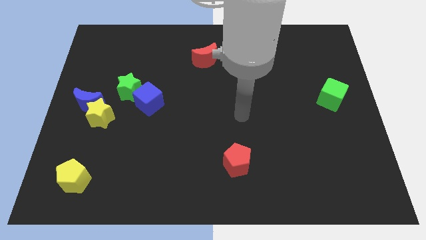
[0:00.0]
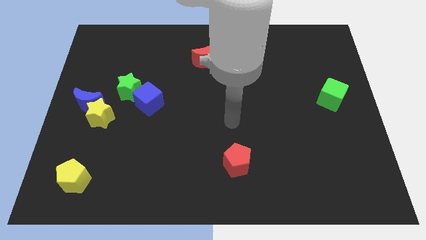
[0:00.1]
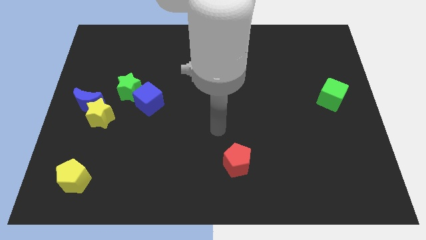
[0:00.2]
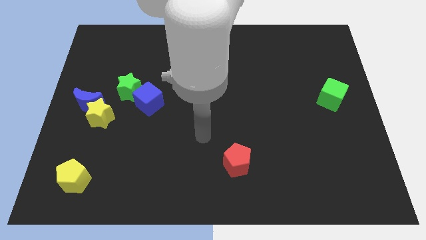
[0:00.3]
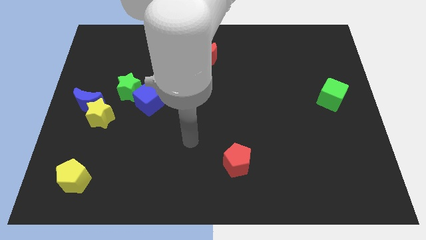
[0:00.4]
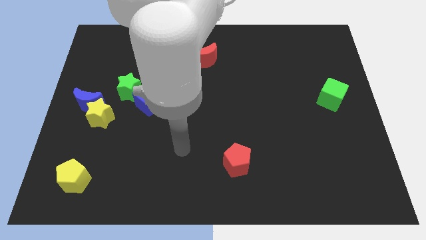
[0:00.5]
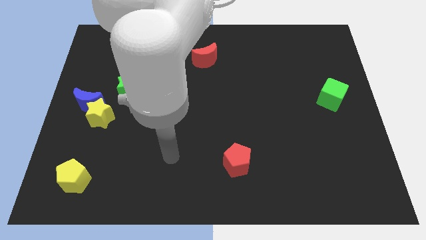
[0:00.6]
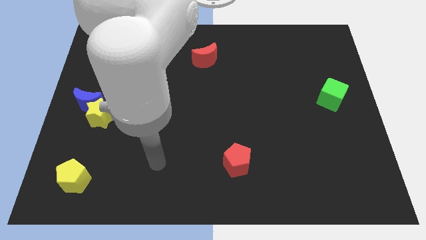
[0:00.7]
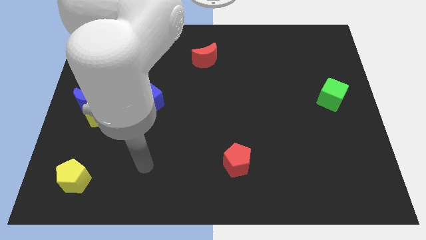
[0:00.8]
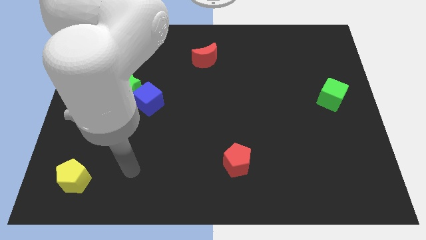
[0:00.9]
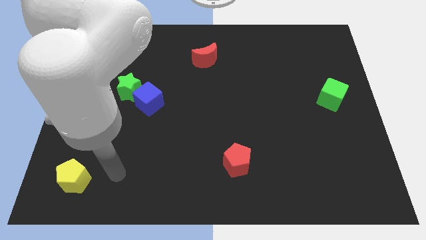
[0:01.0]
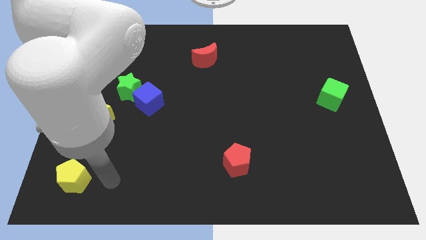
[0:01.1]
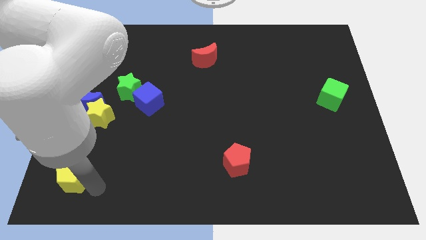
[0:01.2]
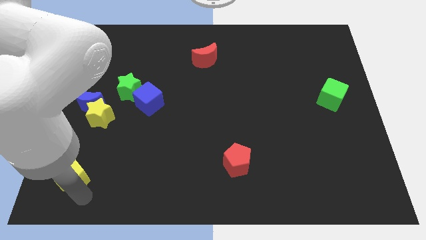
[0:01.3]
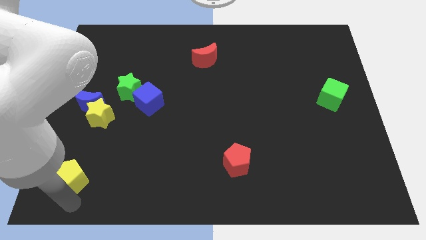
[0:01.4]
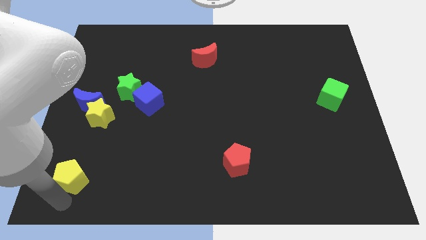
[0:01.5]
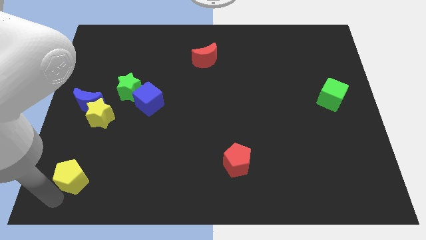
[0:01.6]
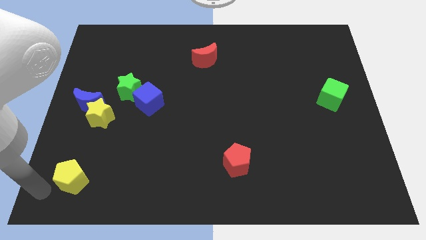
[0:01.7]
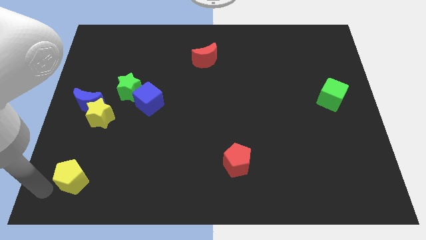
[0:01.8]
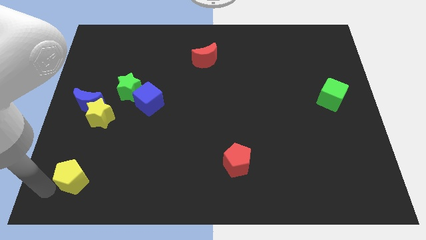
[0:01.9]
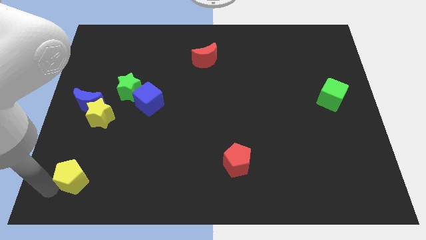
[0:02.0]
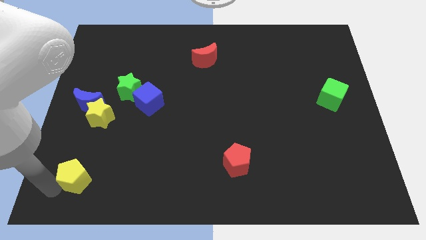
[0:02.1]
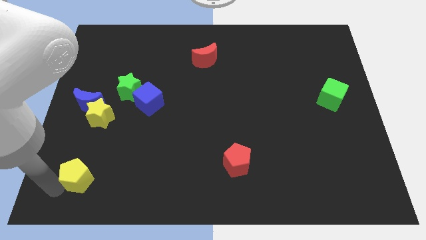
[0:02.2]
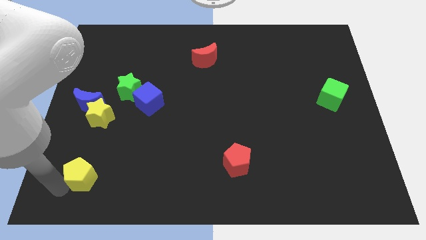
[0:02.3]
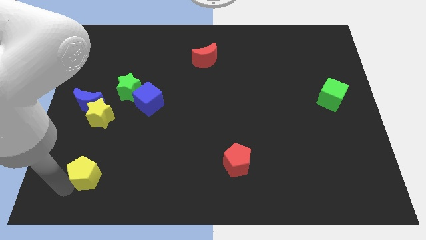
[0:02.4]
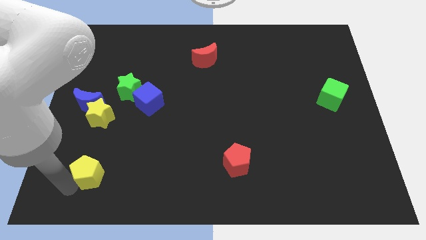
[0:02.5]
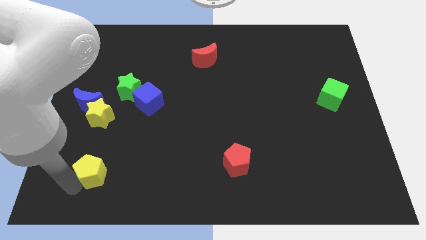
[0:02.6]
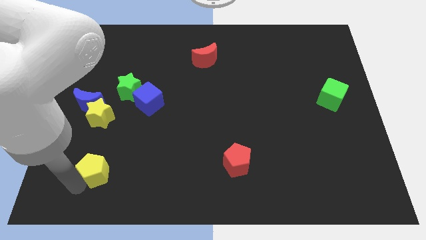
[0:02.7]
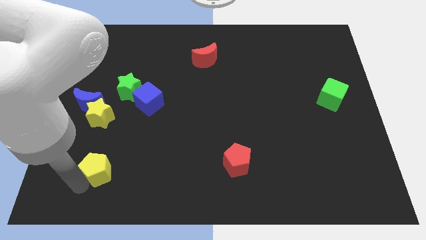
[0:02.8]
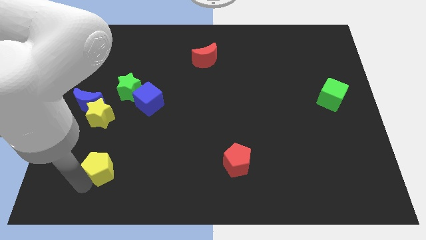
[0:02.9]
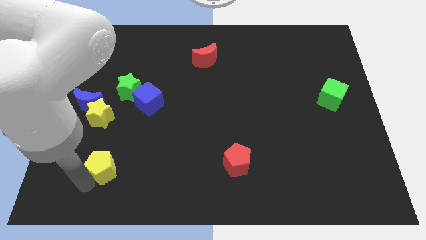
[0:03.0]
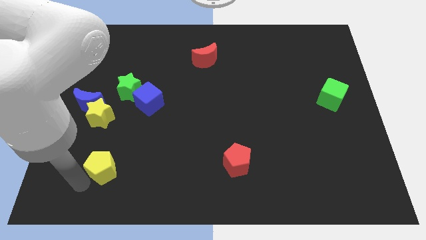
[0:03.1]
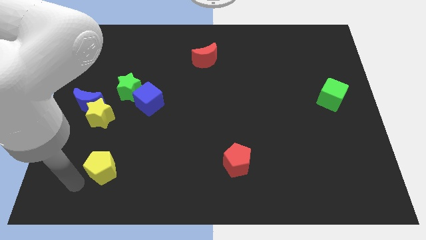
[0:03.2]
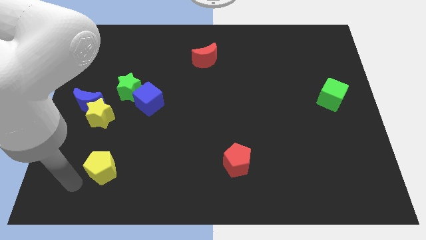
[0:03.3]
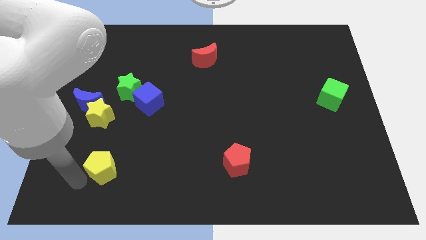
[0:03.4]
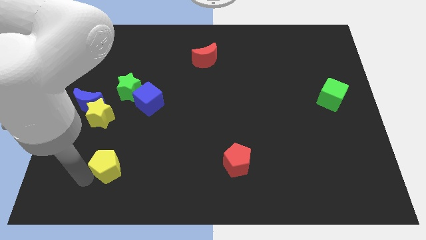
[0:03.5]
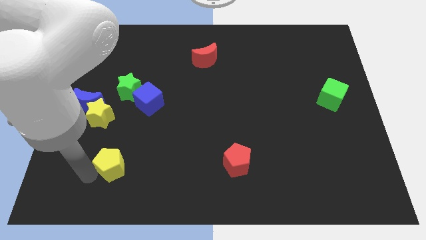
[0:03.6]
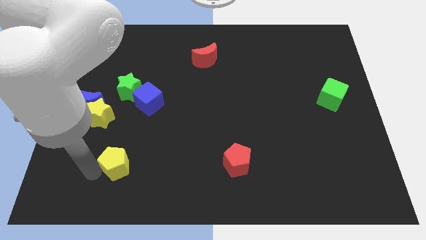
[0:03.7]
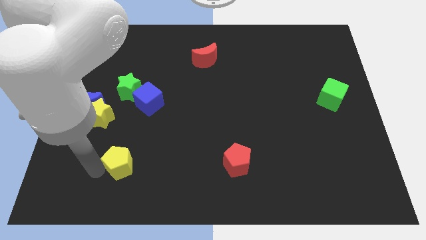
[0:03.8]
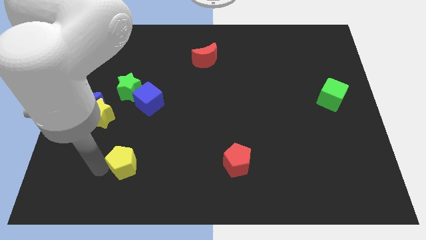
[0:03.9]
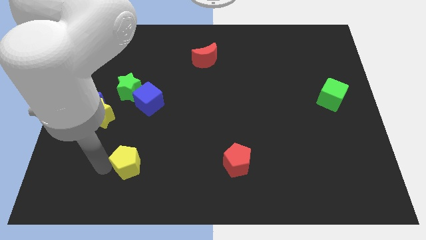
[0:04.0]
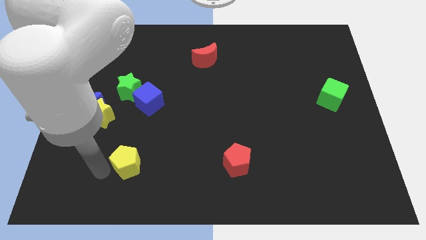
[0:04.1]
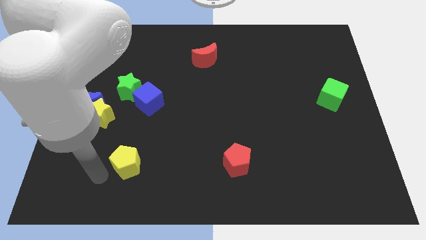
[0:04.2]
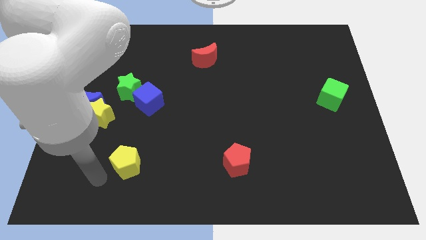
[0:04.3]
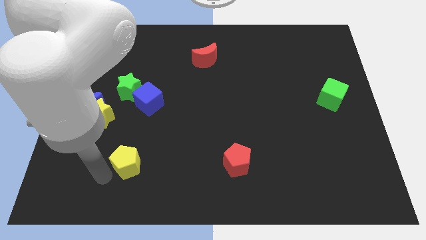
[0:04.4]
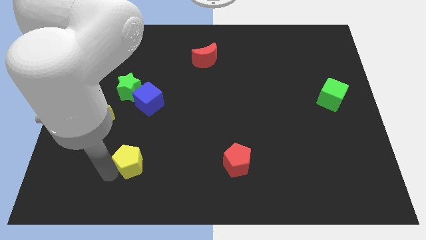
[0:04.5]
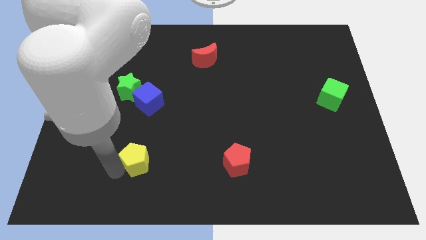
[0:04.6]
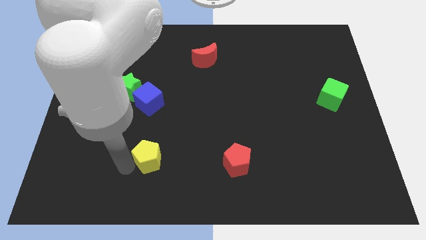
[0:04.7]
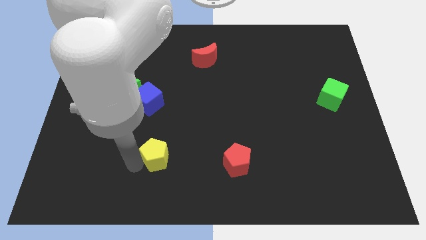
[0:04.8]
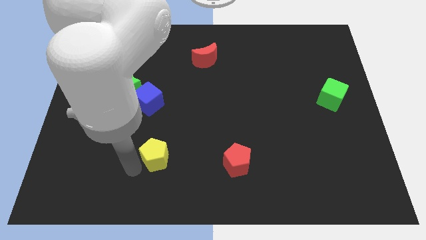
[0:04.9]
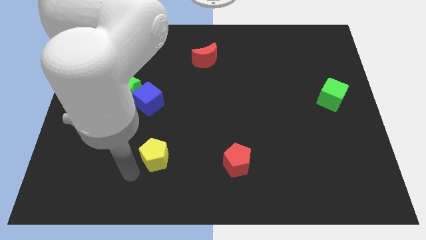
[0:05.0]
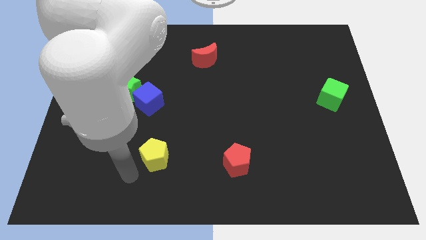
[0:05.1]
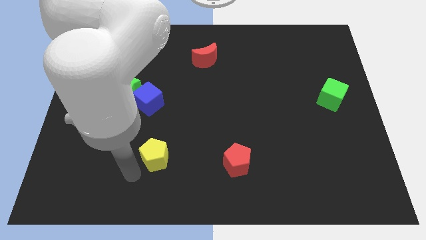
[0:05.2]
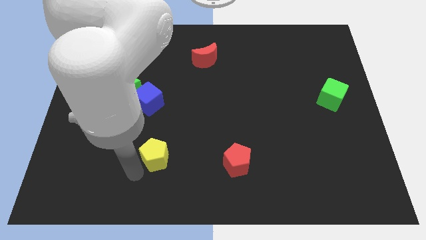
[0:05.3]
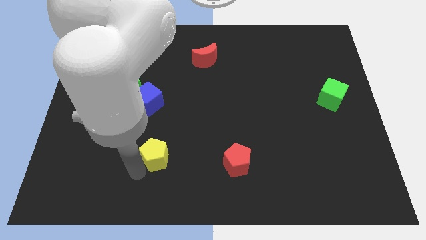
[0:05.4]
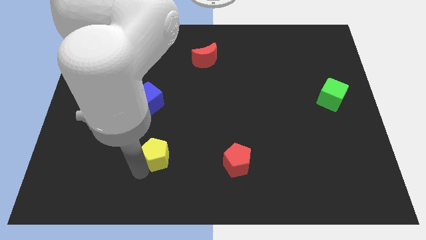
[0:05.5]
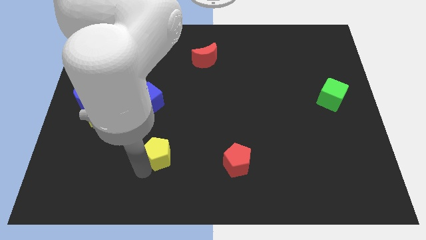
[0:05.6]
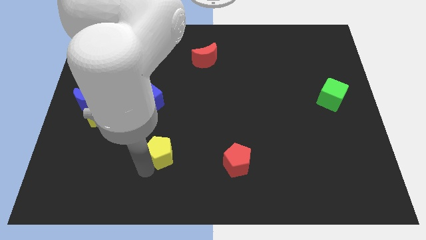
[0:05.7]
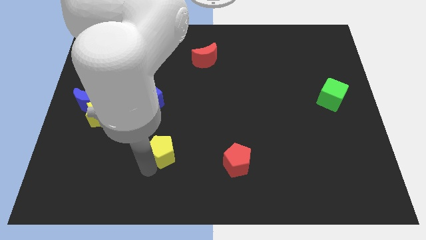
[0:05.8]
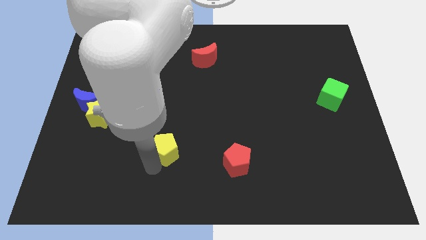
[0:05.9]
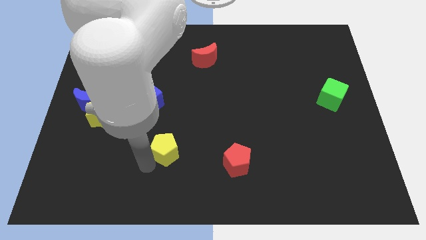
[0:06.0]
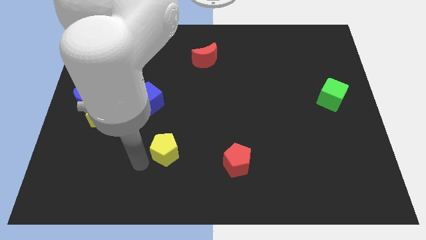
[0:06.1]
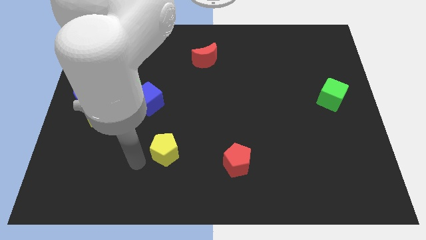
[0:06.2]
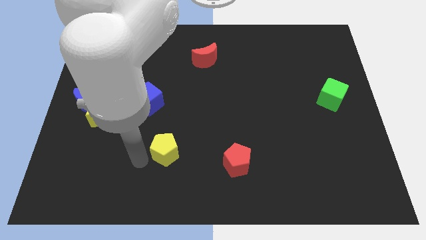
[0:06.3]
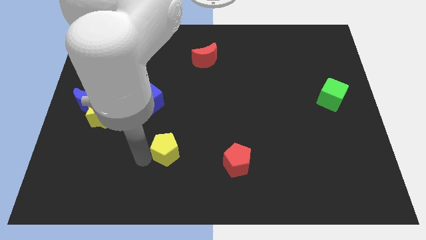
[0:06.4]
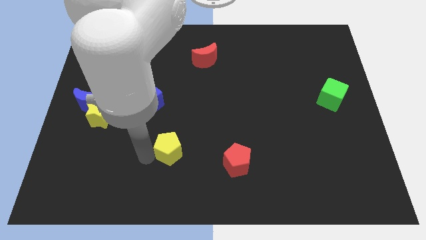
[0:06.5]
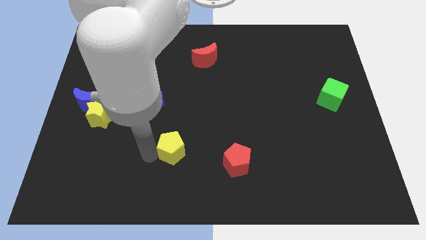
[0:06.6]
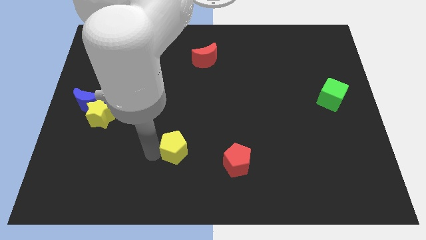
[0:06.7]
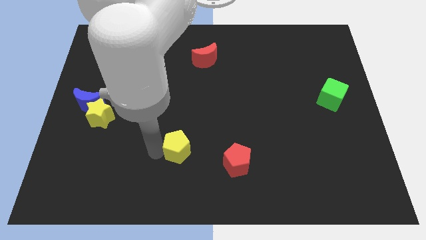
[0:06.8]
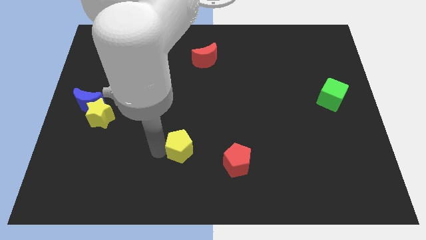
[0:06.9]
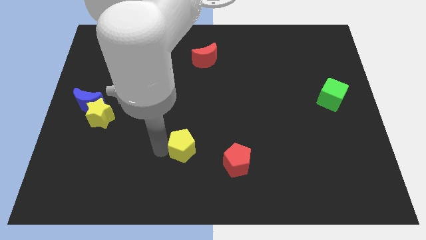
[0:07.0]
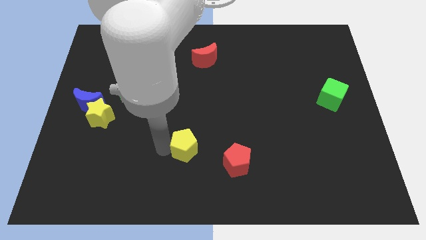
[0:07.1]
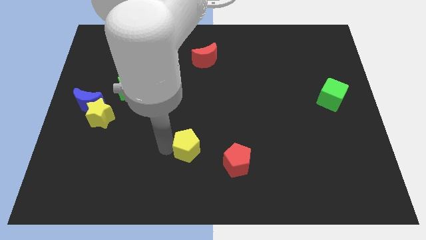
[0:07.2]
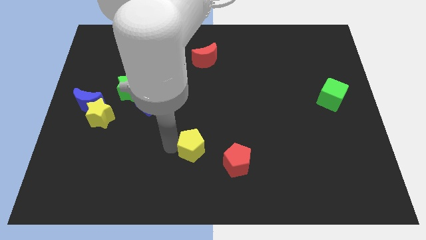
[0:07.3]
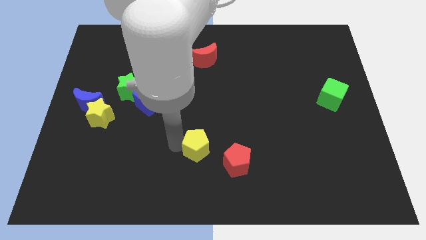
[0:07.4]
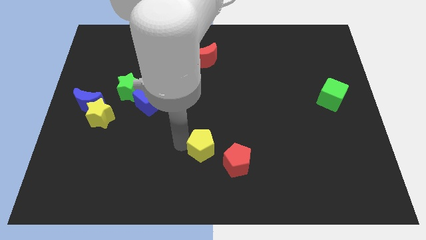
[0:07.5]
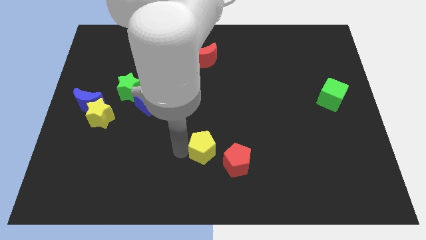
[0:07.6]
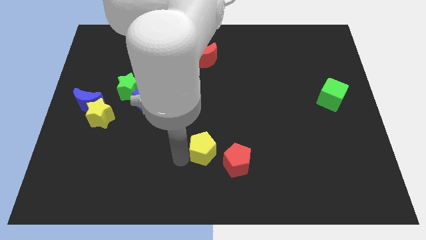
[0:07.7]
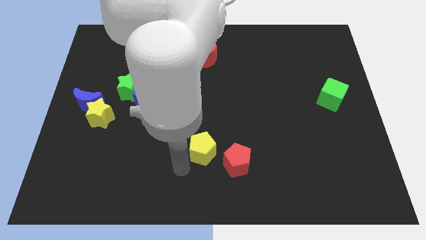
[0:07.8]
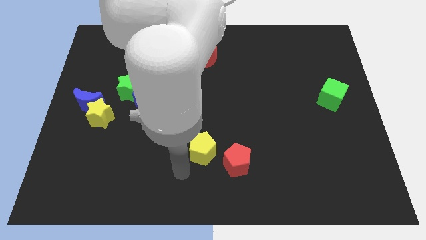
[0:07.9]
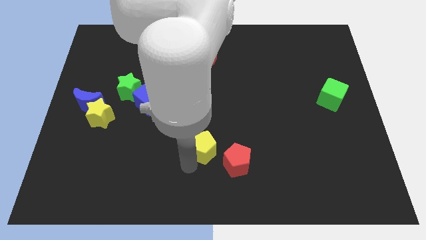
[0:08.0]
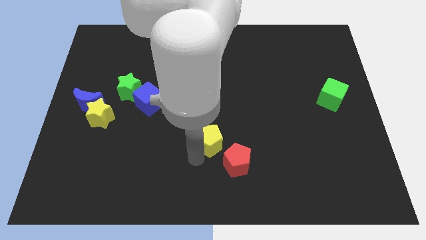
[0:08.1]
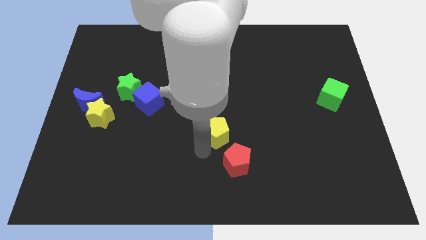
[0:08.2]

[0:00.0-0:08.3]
slide the yellow pentagon above the red pentagon
